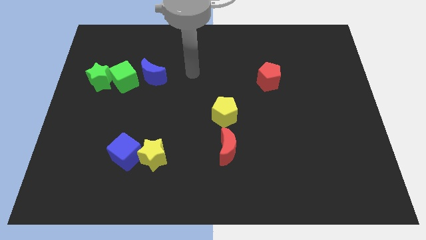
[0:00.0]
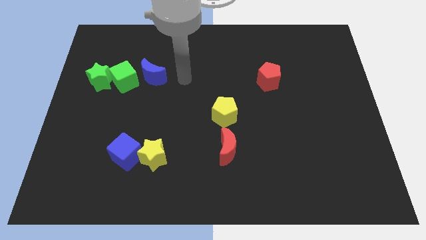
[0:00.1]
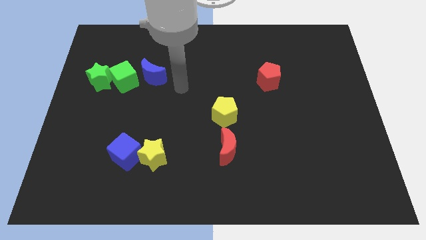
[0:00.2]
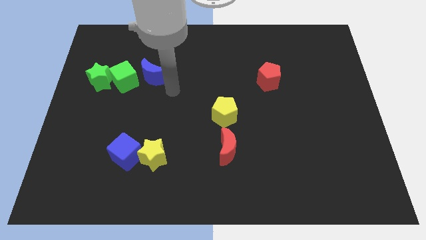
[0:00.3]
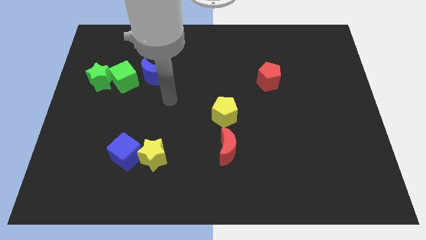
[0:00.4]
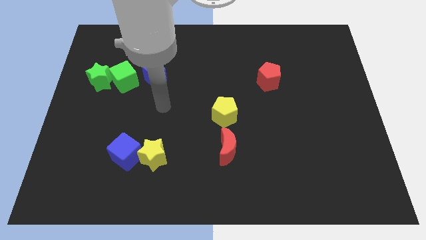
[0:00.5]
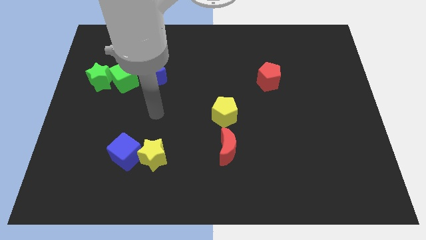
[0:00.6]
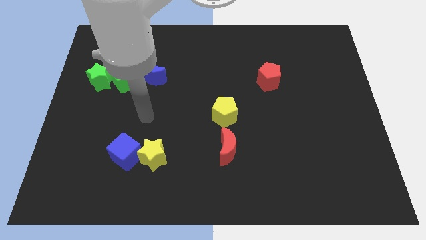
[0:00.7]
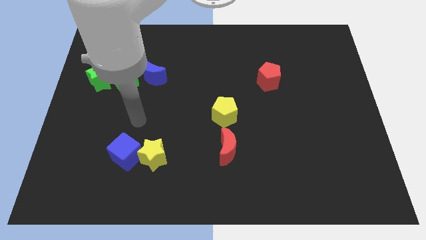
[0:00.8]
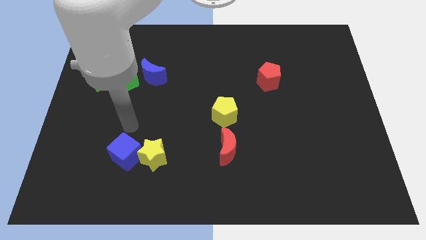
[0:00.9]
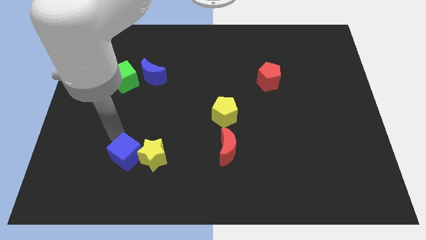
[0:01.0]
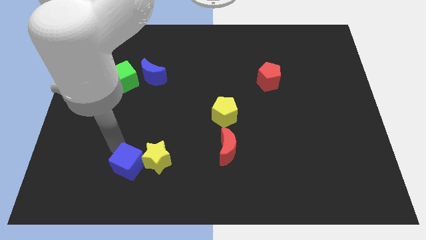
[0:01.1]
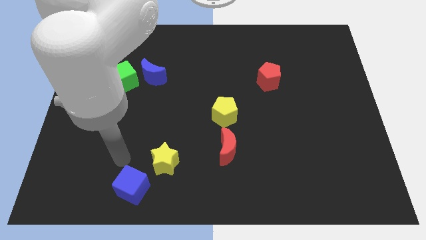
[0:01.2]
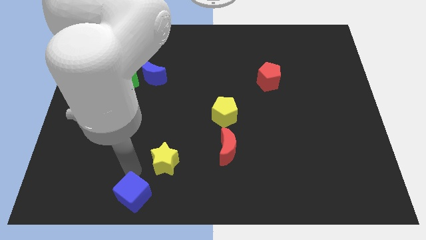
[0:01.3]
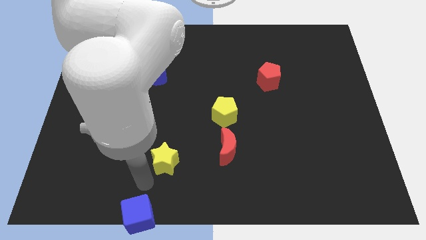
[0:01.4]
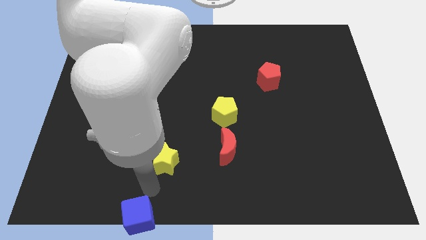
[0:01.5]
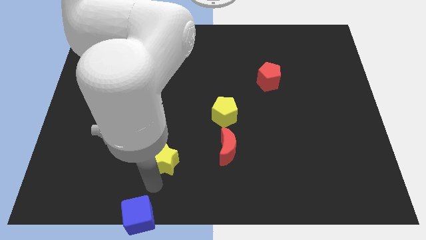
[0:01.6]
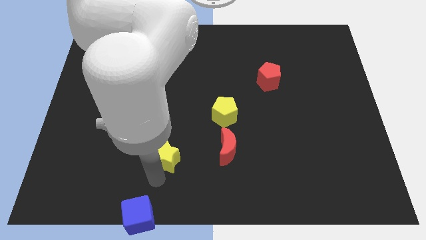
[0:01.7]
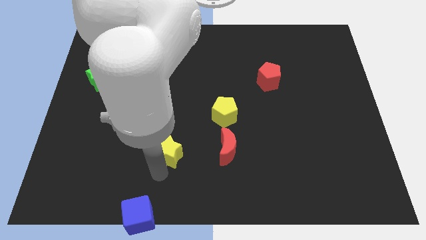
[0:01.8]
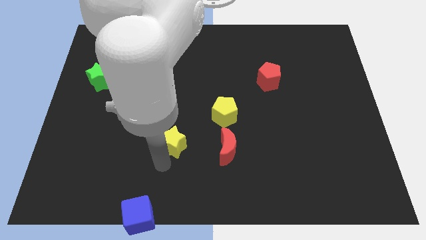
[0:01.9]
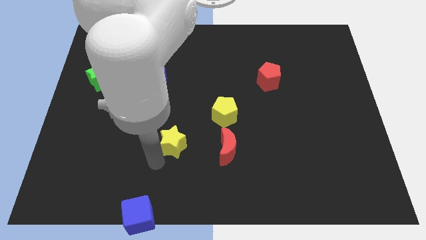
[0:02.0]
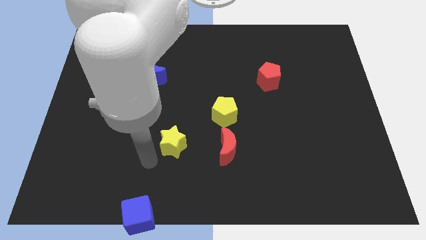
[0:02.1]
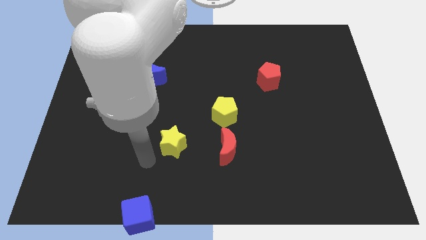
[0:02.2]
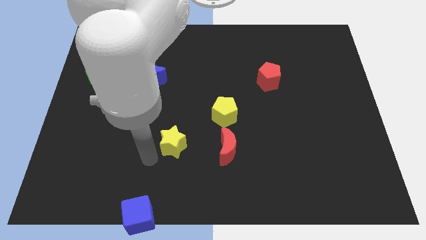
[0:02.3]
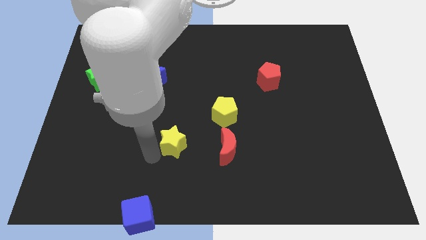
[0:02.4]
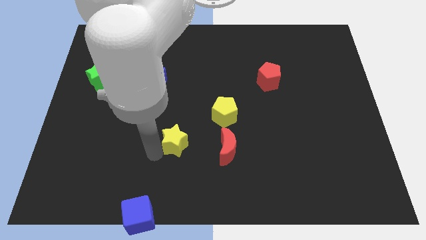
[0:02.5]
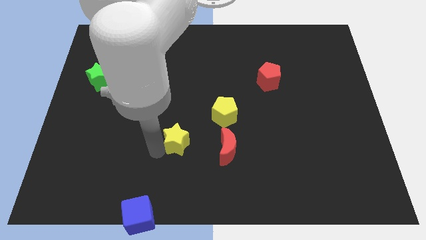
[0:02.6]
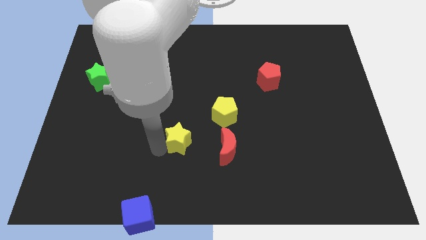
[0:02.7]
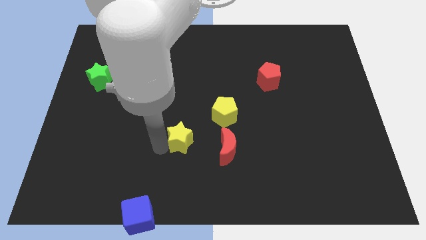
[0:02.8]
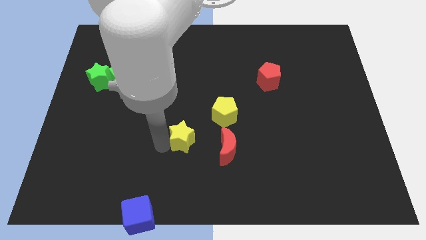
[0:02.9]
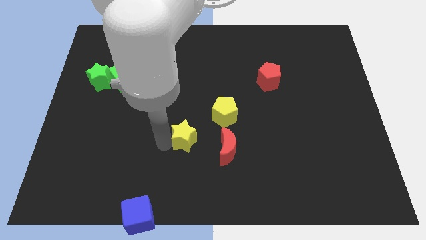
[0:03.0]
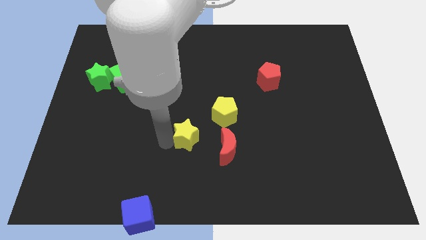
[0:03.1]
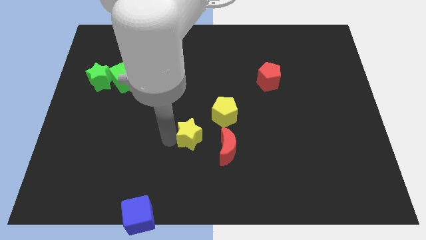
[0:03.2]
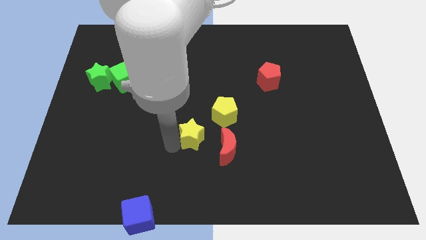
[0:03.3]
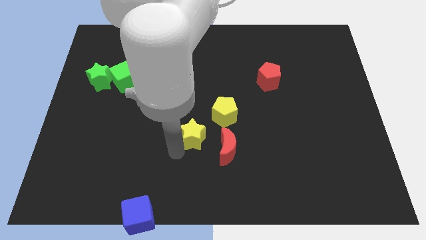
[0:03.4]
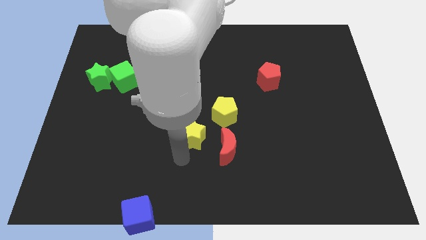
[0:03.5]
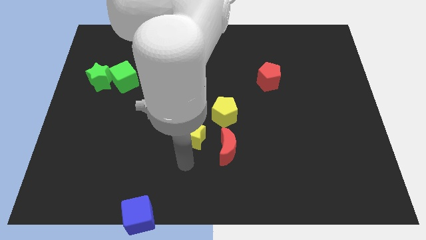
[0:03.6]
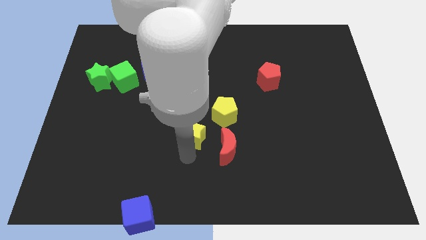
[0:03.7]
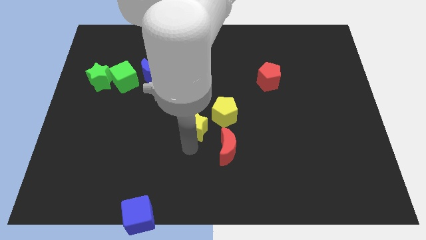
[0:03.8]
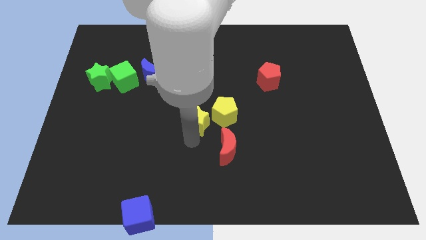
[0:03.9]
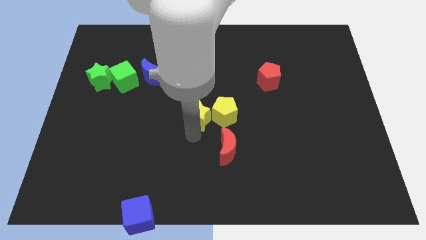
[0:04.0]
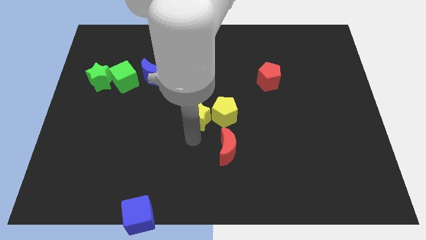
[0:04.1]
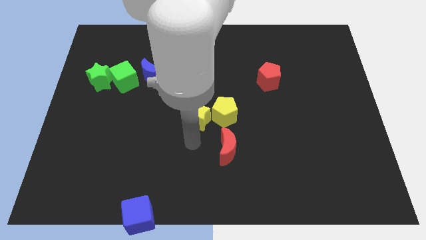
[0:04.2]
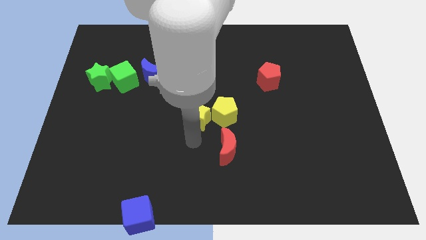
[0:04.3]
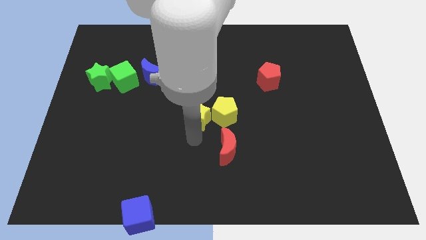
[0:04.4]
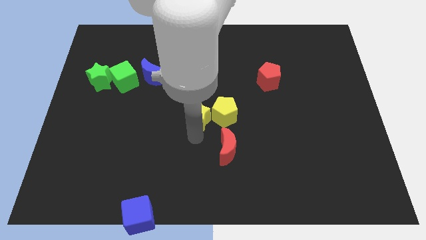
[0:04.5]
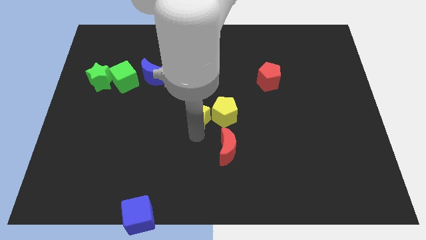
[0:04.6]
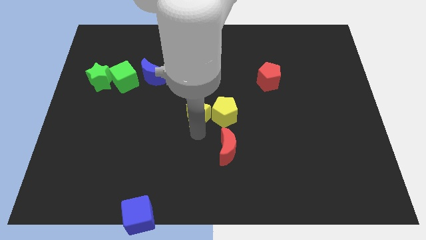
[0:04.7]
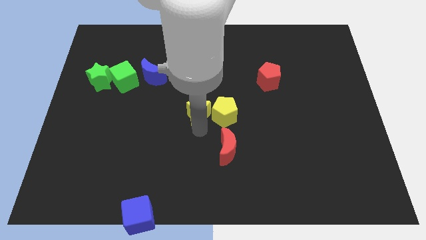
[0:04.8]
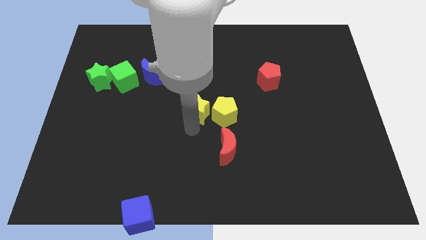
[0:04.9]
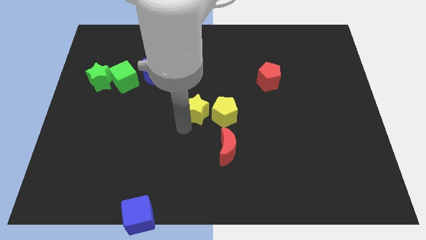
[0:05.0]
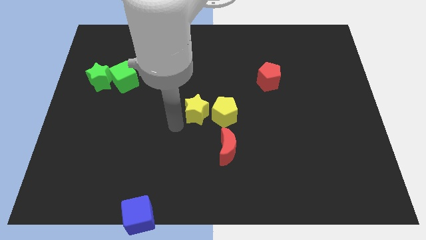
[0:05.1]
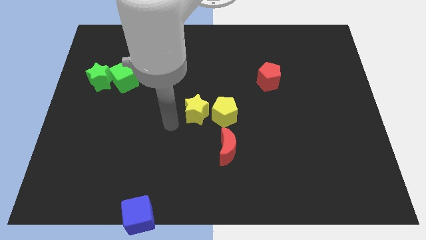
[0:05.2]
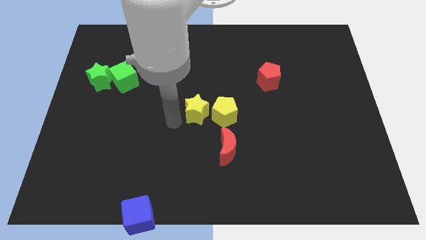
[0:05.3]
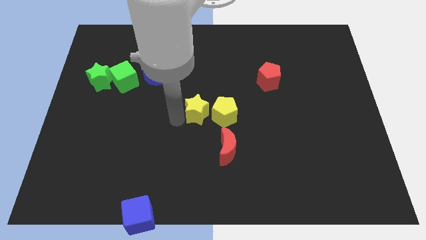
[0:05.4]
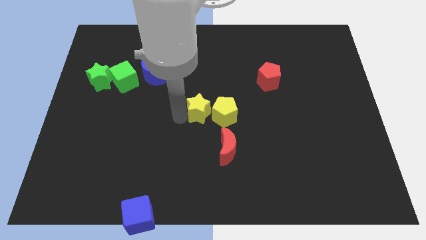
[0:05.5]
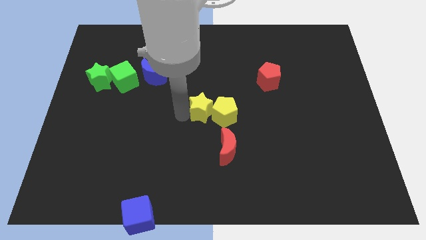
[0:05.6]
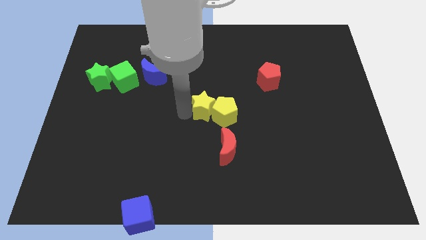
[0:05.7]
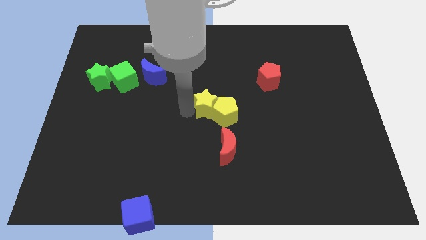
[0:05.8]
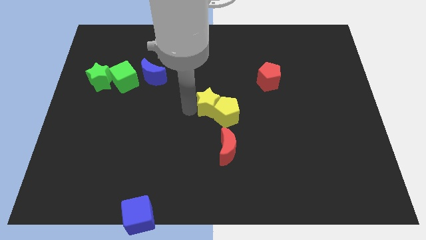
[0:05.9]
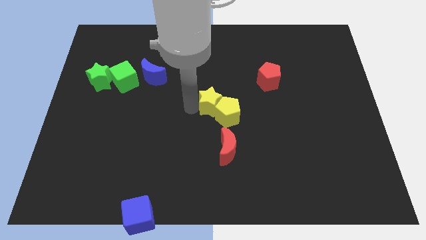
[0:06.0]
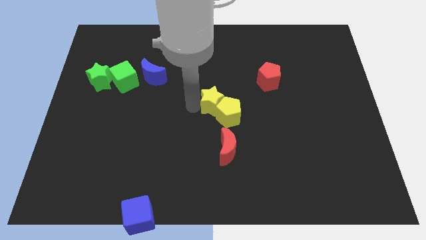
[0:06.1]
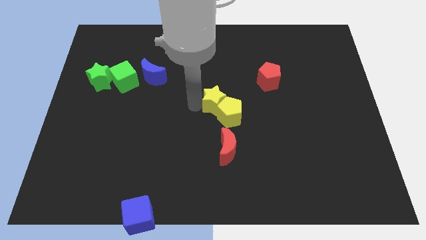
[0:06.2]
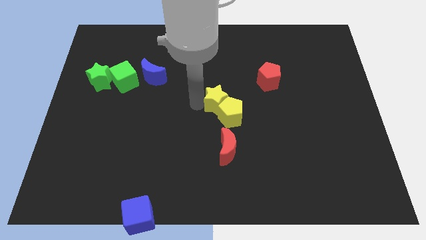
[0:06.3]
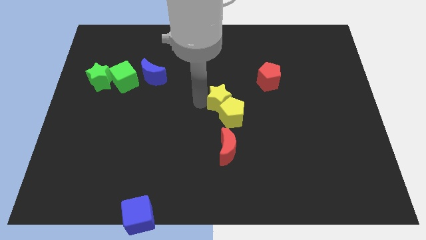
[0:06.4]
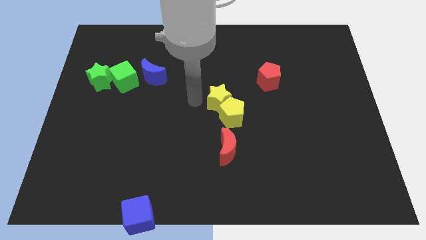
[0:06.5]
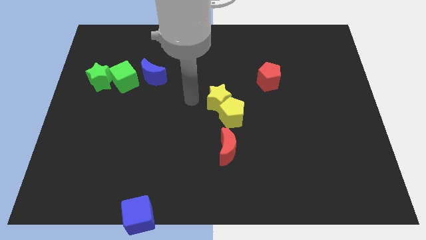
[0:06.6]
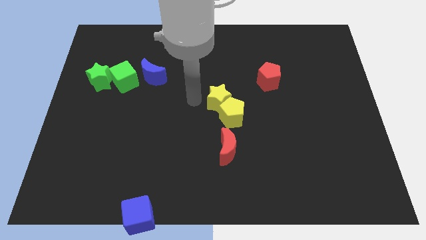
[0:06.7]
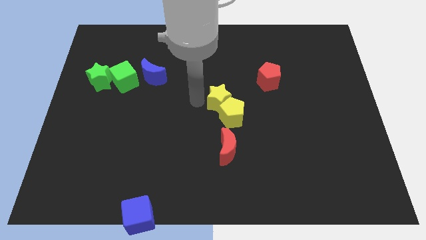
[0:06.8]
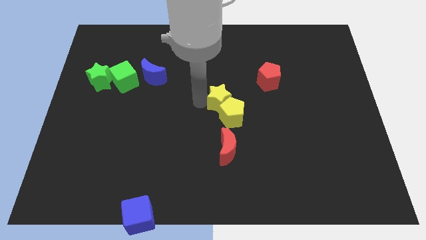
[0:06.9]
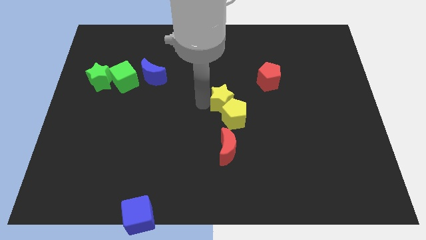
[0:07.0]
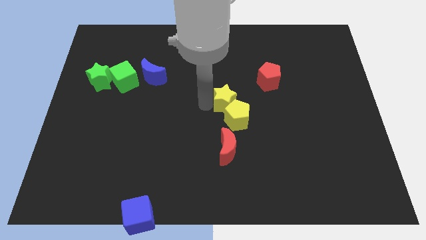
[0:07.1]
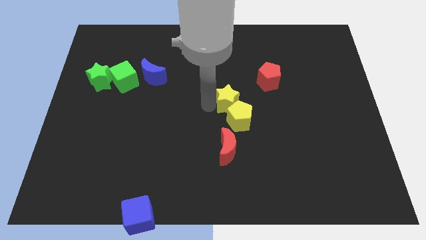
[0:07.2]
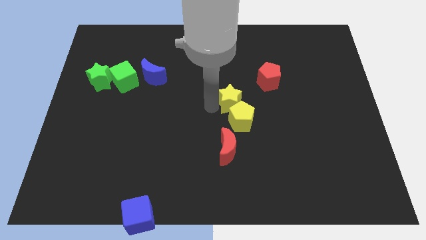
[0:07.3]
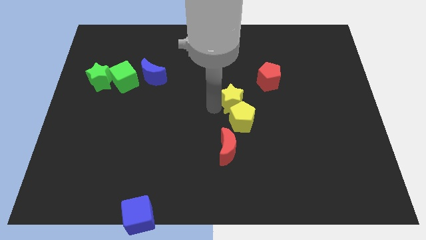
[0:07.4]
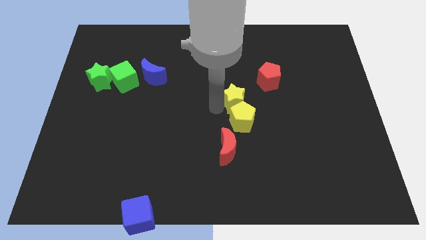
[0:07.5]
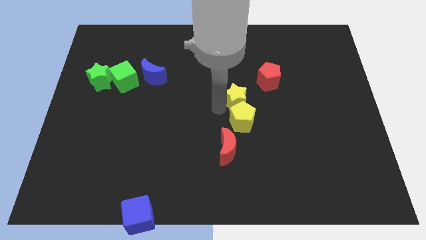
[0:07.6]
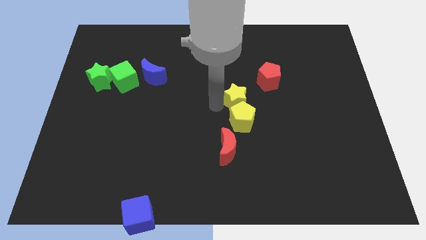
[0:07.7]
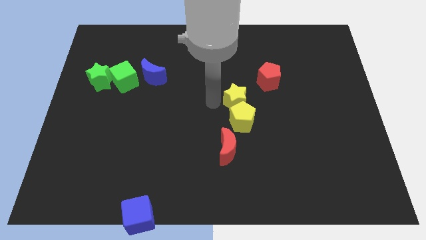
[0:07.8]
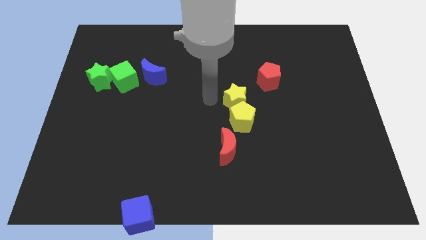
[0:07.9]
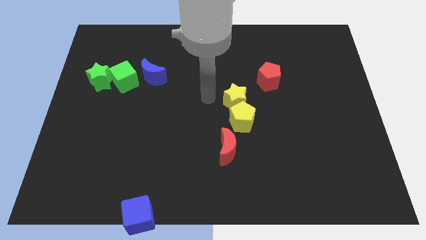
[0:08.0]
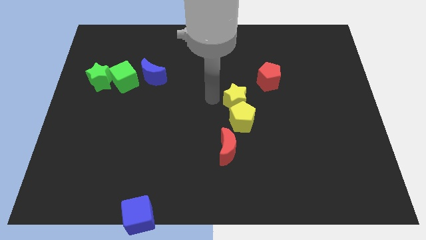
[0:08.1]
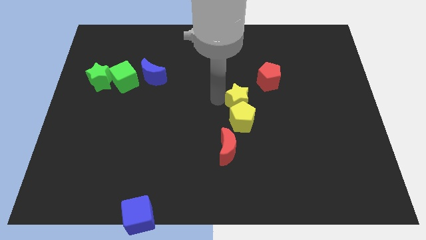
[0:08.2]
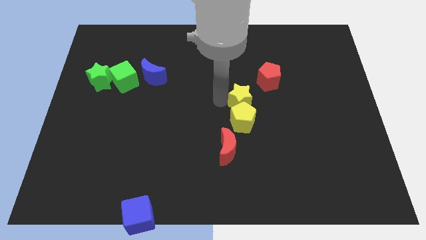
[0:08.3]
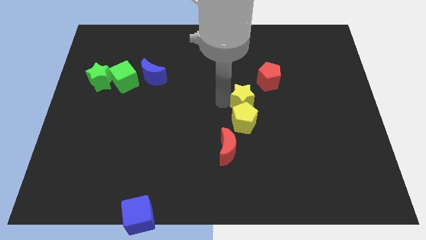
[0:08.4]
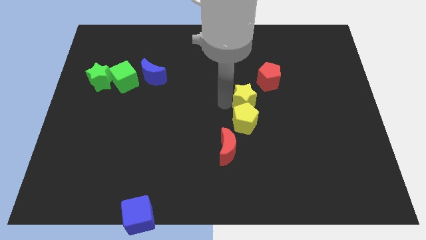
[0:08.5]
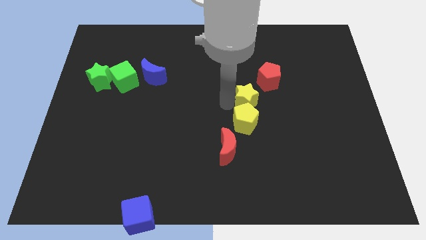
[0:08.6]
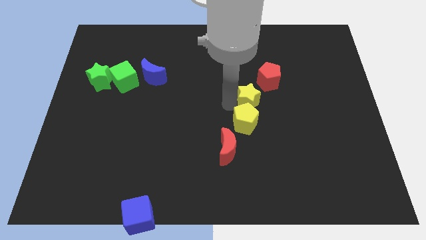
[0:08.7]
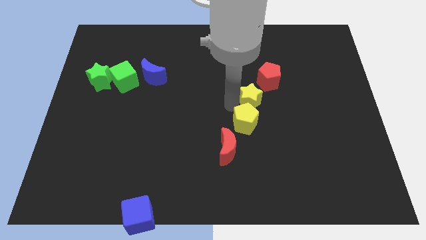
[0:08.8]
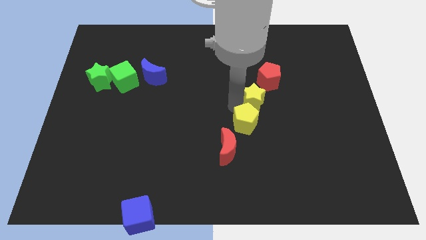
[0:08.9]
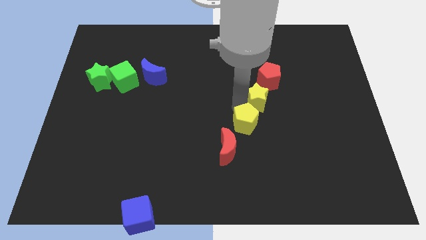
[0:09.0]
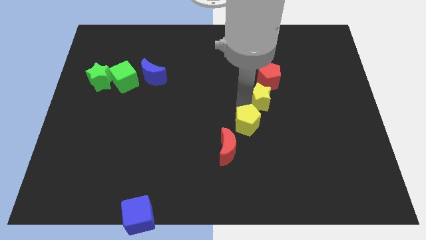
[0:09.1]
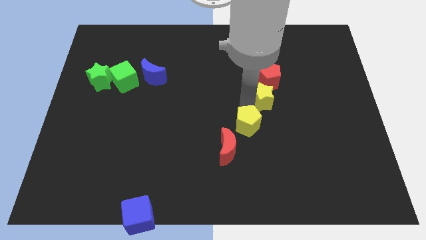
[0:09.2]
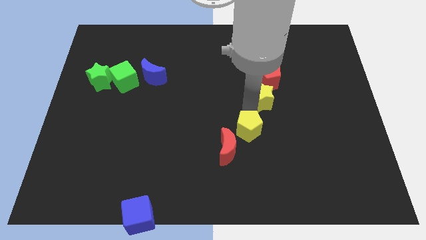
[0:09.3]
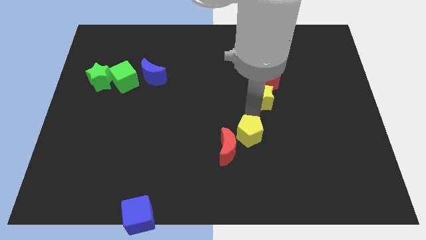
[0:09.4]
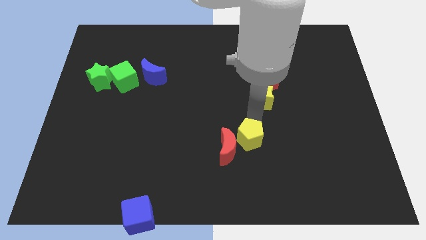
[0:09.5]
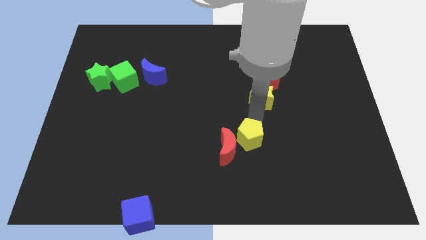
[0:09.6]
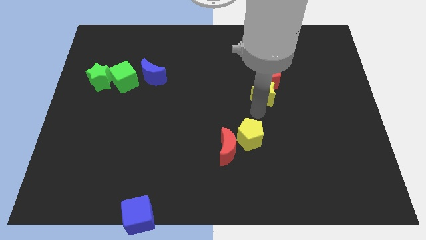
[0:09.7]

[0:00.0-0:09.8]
move the yellow star next to the red pentagon
